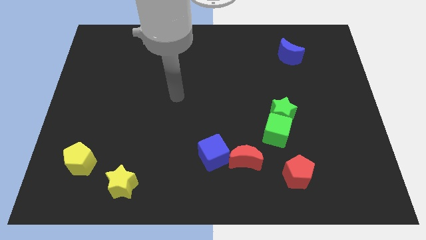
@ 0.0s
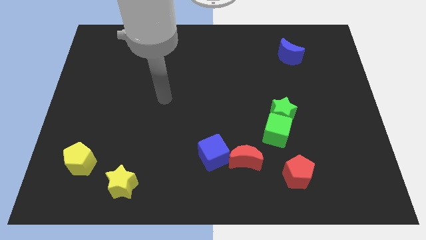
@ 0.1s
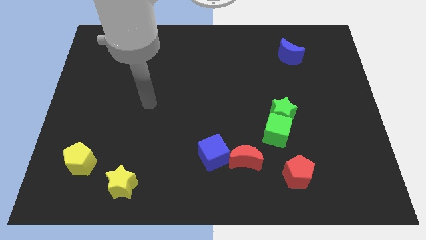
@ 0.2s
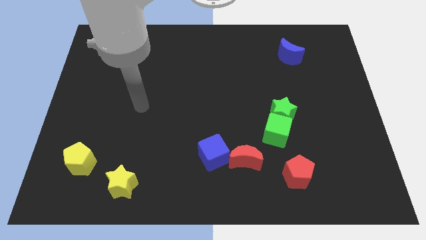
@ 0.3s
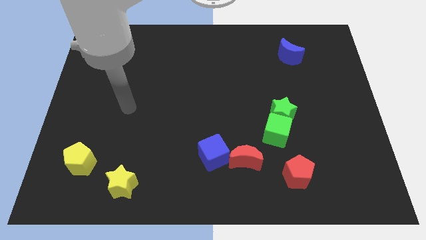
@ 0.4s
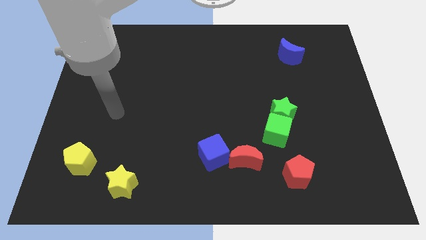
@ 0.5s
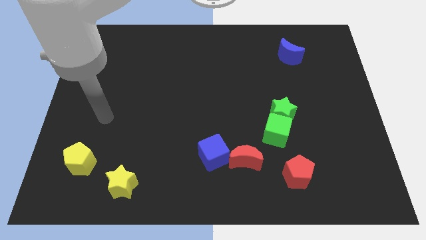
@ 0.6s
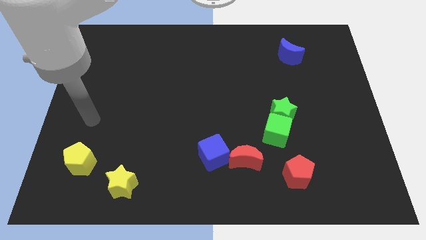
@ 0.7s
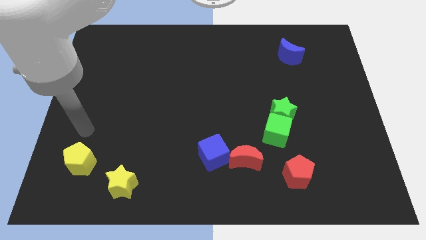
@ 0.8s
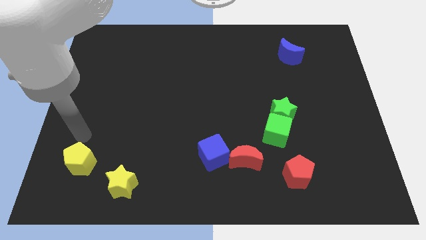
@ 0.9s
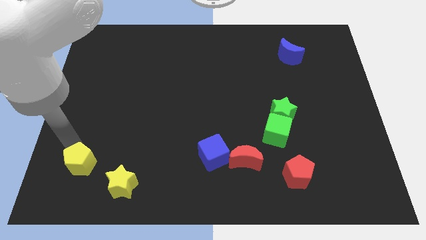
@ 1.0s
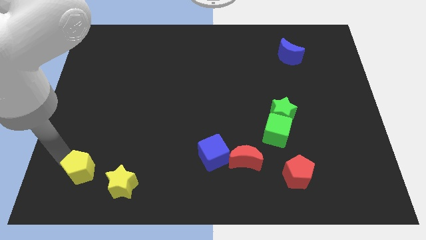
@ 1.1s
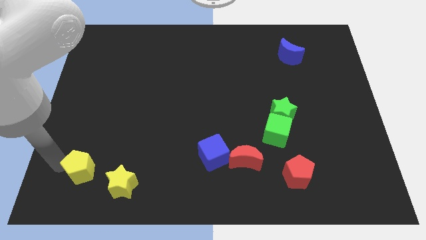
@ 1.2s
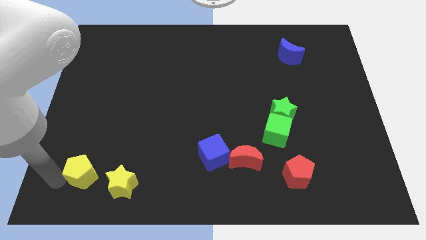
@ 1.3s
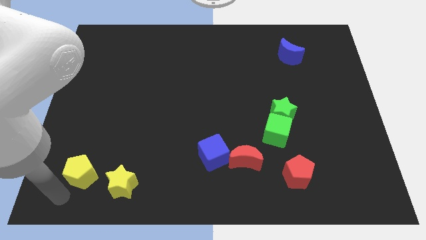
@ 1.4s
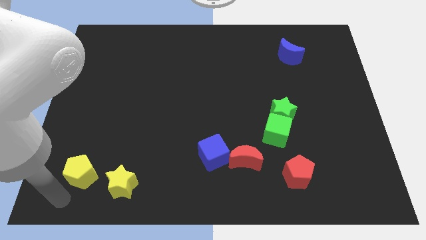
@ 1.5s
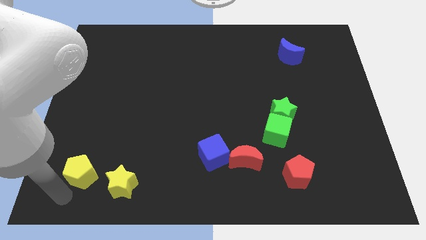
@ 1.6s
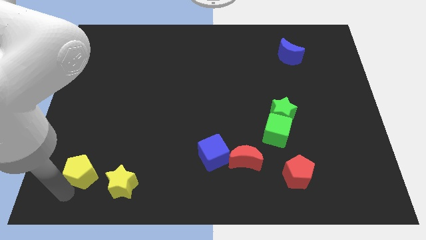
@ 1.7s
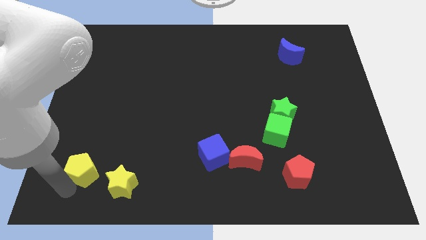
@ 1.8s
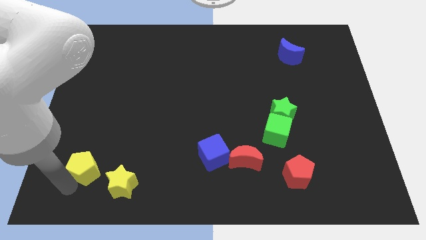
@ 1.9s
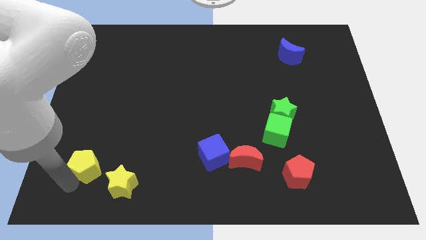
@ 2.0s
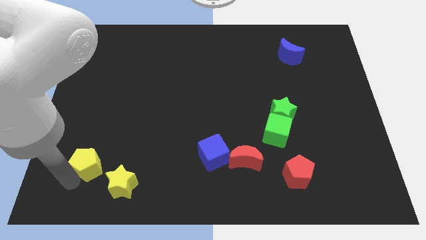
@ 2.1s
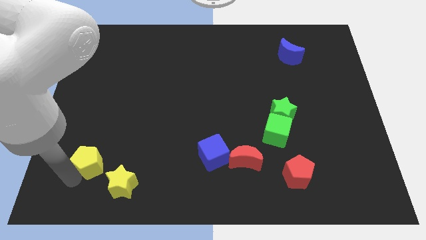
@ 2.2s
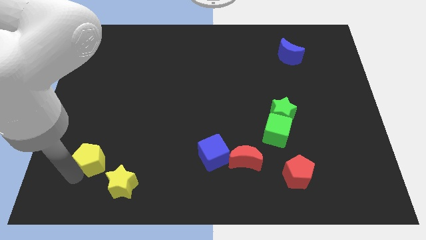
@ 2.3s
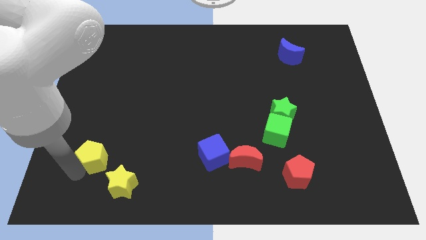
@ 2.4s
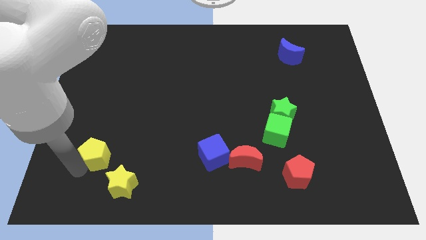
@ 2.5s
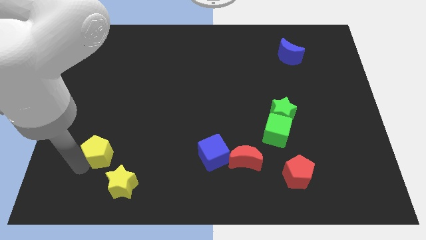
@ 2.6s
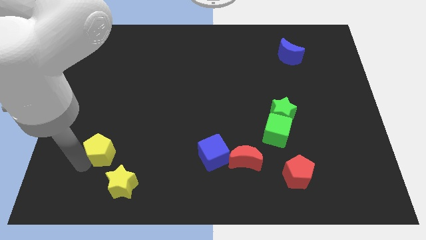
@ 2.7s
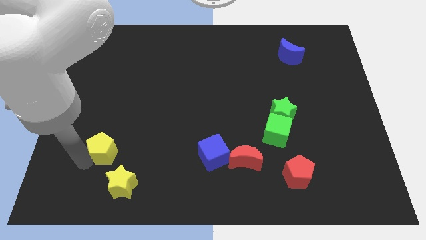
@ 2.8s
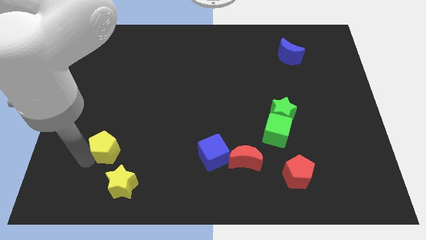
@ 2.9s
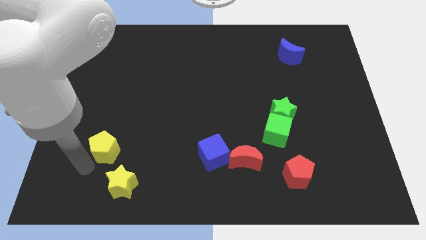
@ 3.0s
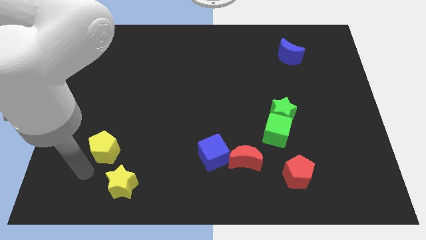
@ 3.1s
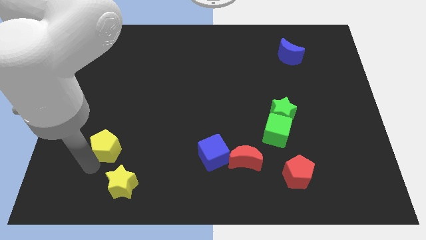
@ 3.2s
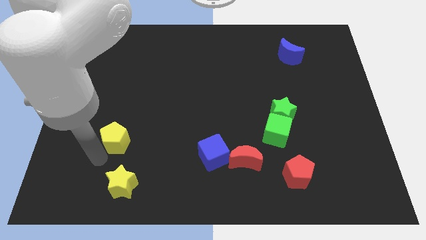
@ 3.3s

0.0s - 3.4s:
slide the yellow pentagon up and to the right a little bit

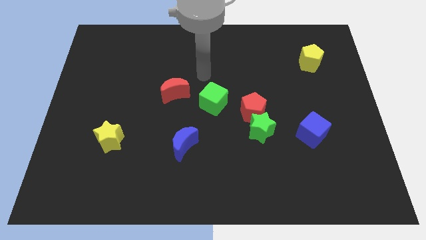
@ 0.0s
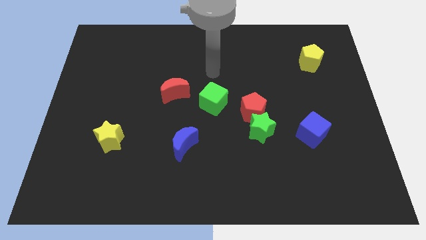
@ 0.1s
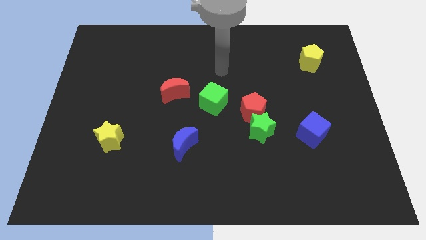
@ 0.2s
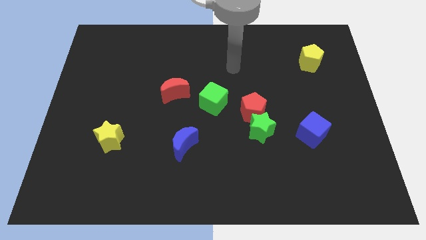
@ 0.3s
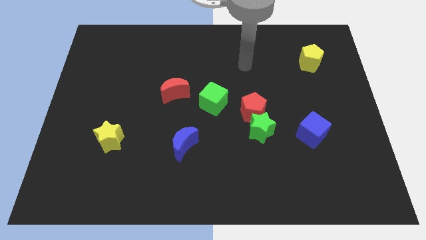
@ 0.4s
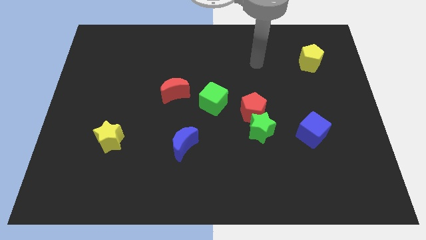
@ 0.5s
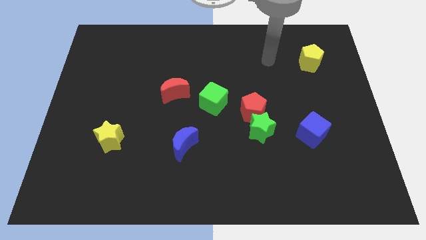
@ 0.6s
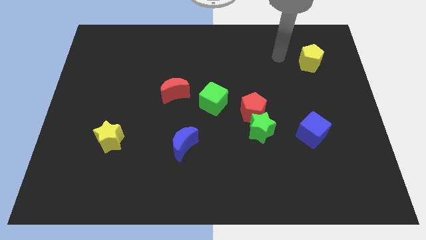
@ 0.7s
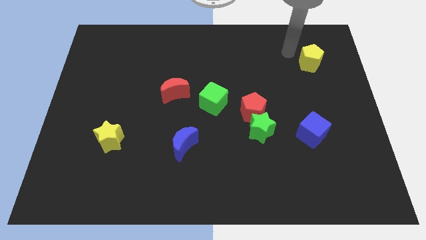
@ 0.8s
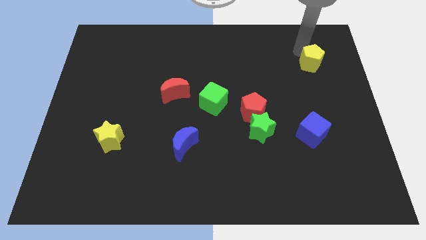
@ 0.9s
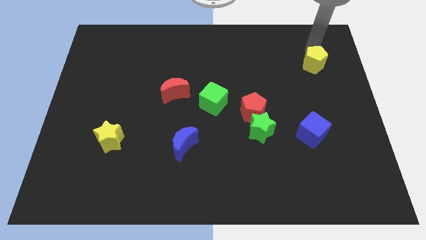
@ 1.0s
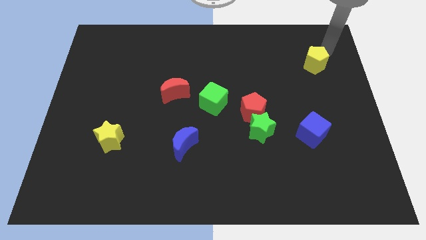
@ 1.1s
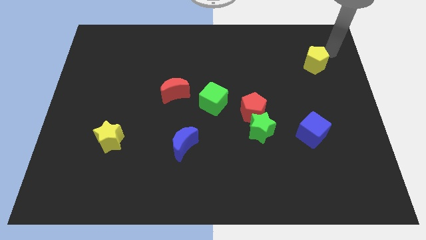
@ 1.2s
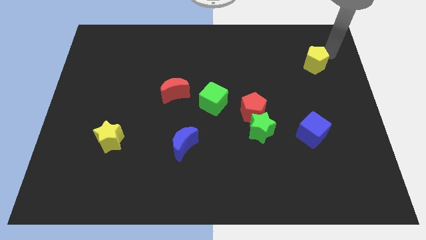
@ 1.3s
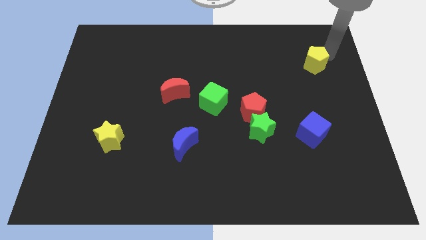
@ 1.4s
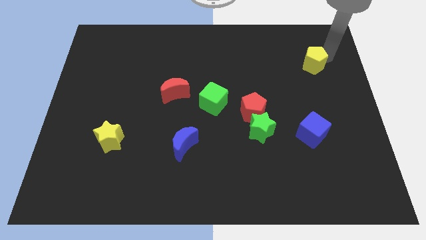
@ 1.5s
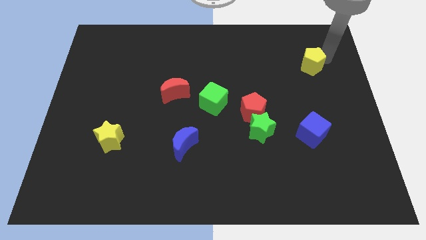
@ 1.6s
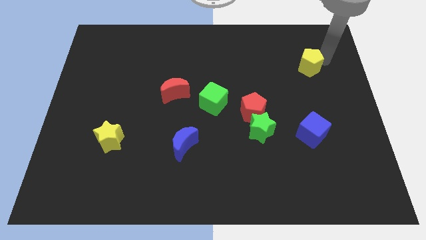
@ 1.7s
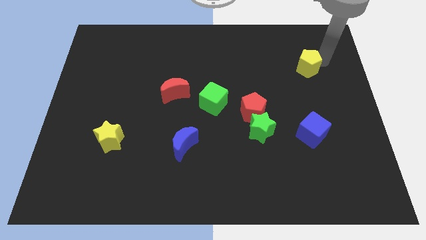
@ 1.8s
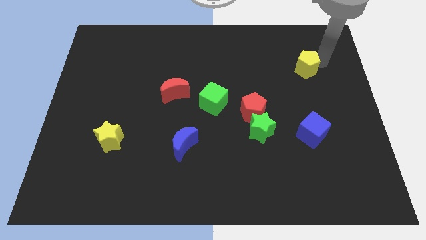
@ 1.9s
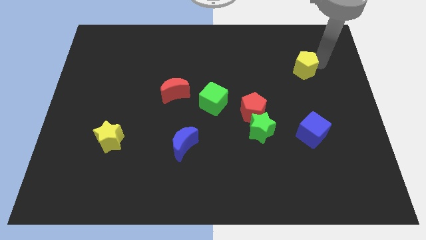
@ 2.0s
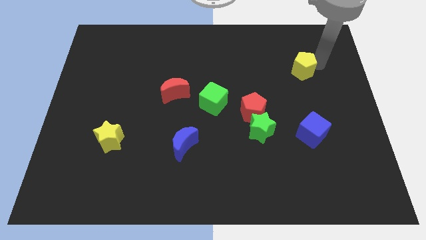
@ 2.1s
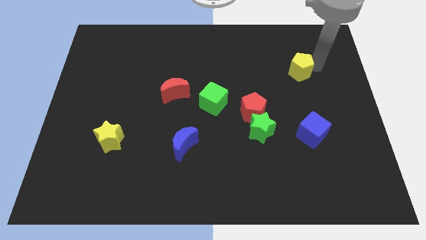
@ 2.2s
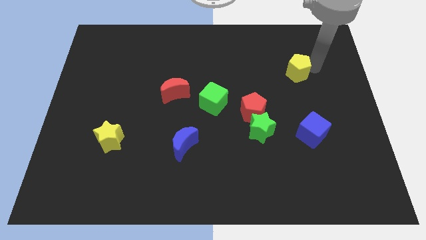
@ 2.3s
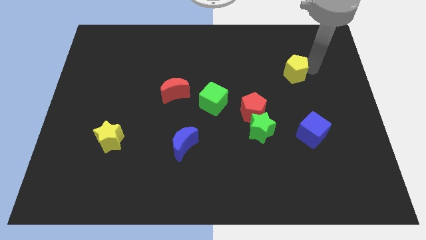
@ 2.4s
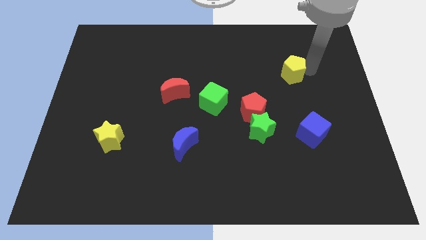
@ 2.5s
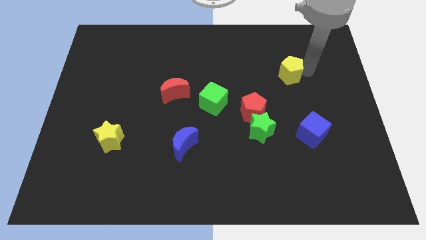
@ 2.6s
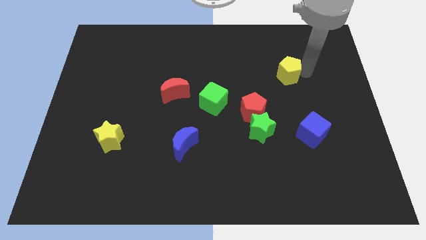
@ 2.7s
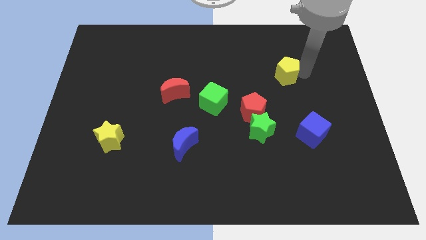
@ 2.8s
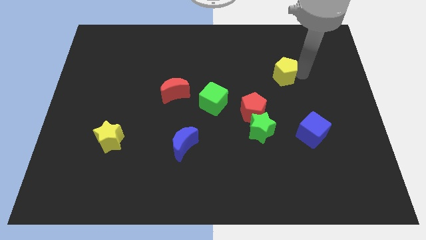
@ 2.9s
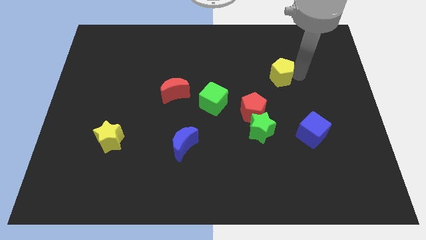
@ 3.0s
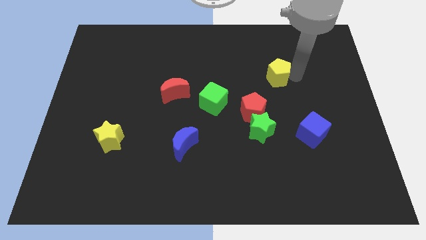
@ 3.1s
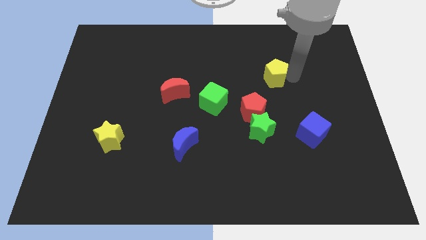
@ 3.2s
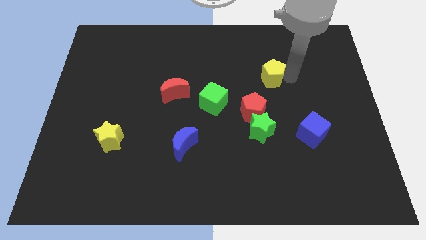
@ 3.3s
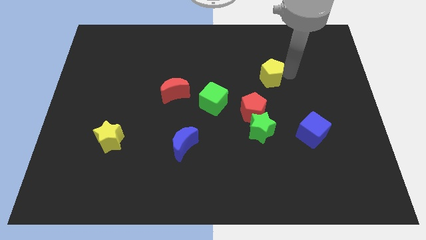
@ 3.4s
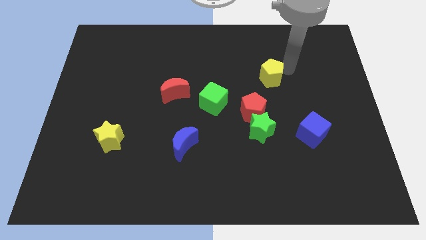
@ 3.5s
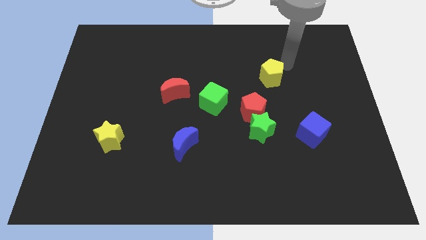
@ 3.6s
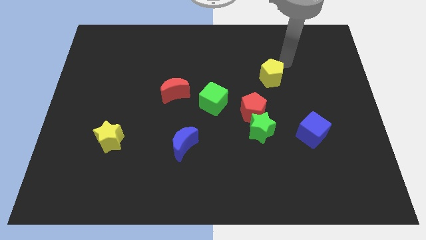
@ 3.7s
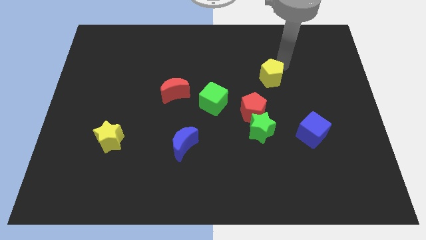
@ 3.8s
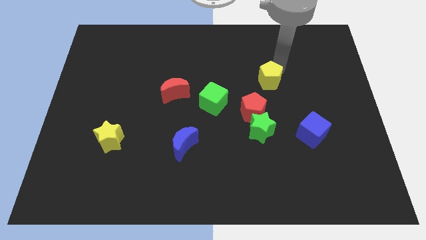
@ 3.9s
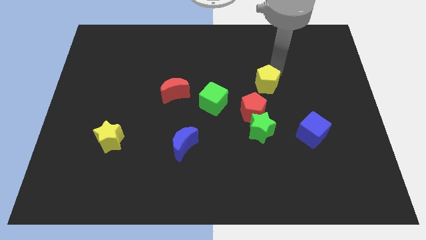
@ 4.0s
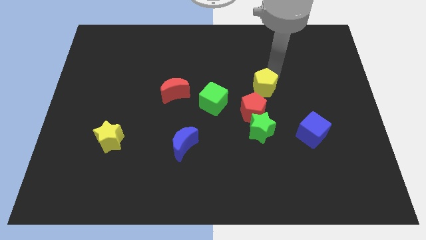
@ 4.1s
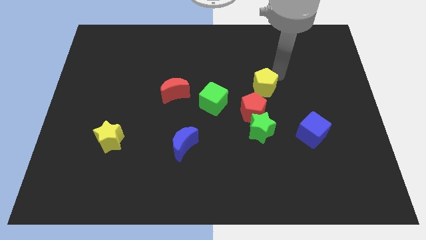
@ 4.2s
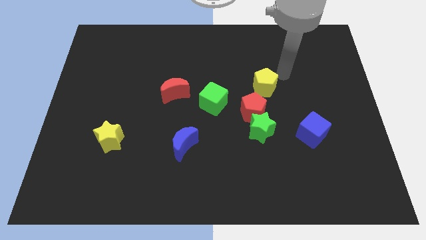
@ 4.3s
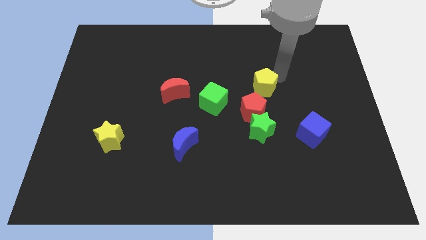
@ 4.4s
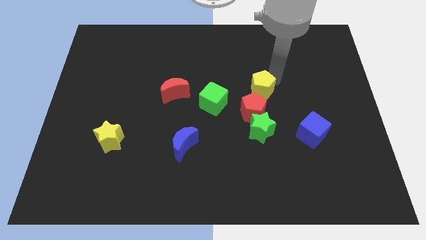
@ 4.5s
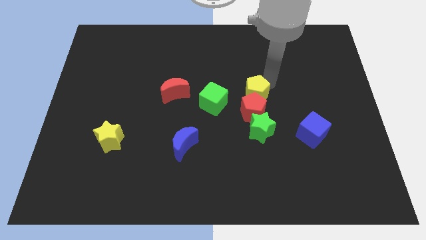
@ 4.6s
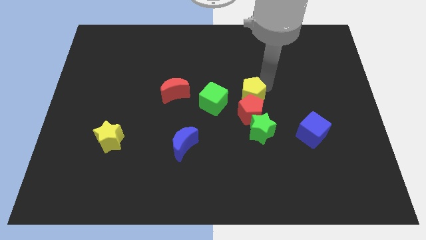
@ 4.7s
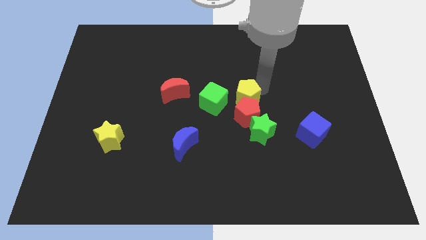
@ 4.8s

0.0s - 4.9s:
move the yellow pentagon diagonally down and to the left
